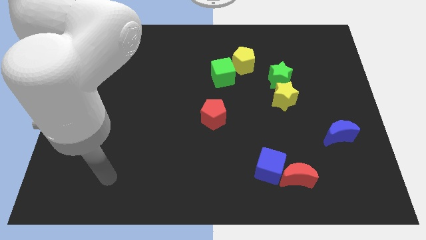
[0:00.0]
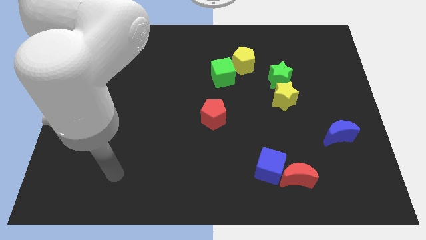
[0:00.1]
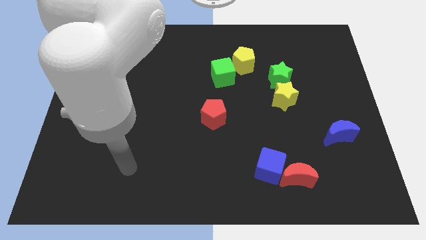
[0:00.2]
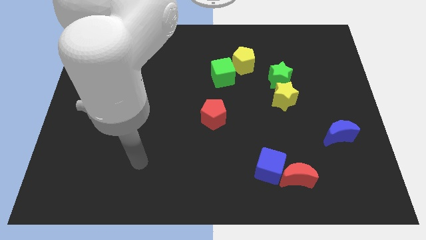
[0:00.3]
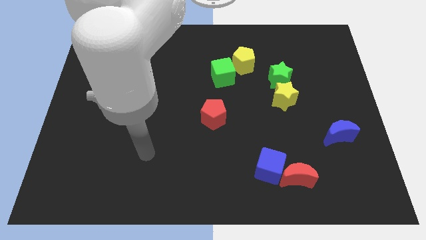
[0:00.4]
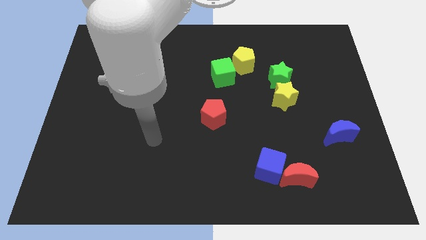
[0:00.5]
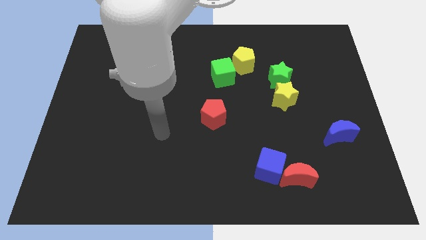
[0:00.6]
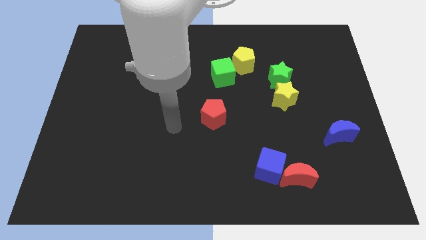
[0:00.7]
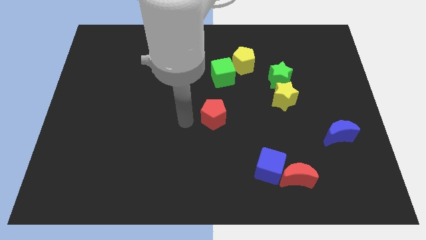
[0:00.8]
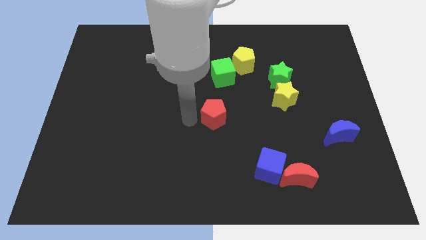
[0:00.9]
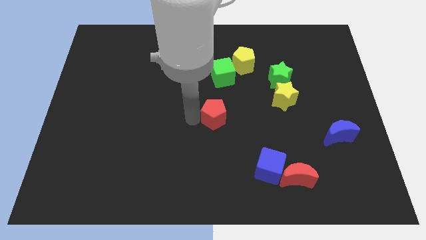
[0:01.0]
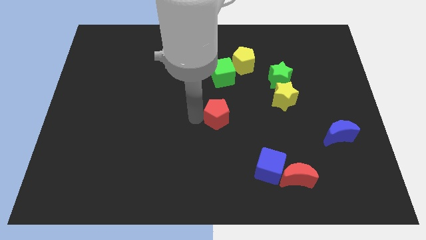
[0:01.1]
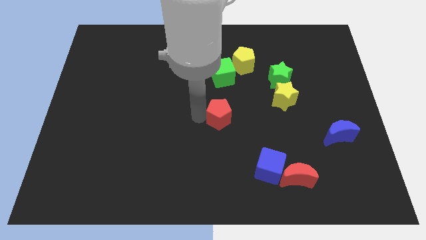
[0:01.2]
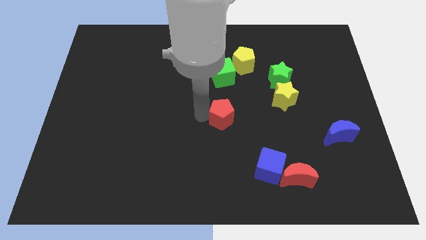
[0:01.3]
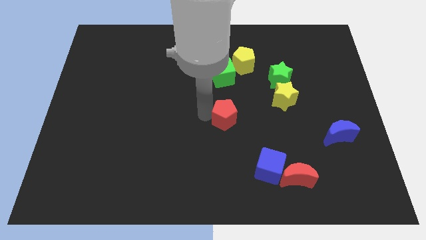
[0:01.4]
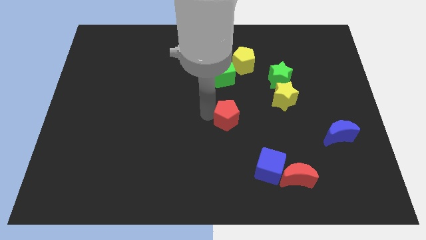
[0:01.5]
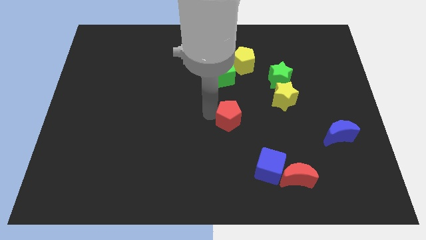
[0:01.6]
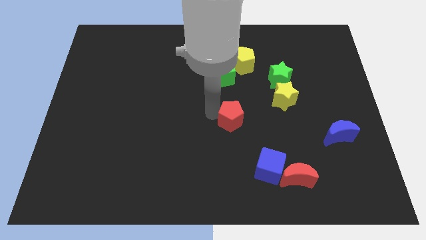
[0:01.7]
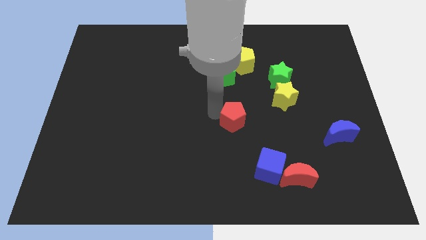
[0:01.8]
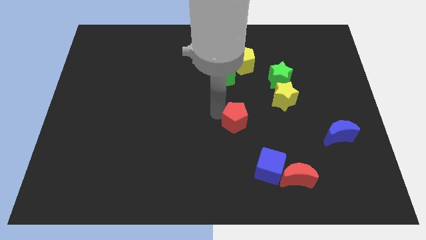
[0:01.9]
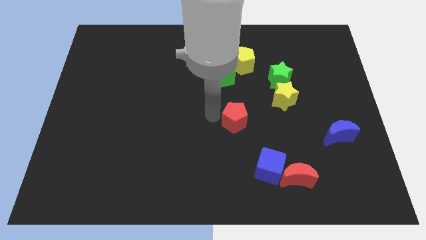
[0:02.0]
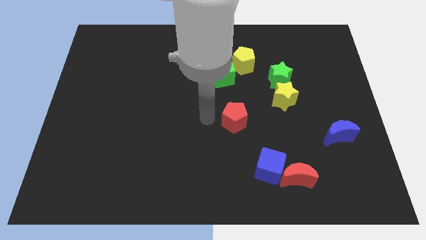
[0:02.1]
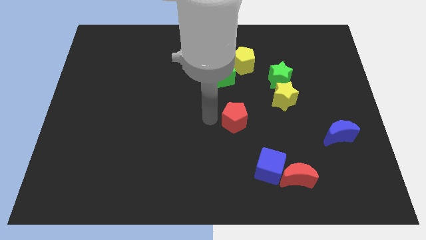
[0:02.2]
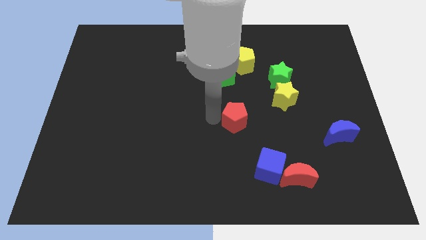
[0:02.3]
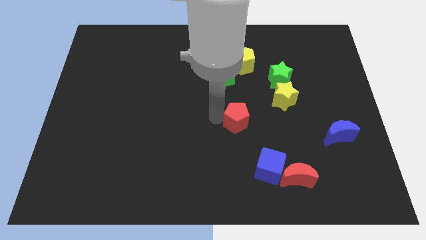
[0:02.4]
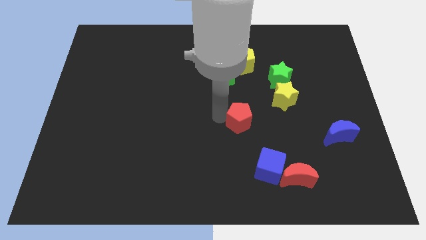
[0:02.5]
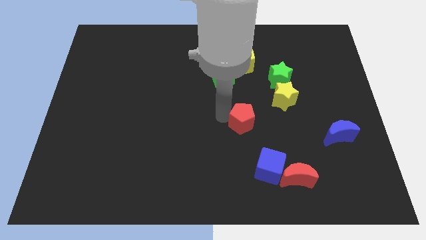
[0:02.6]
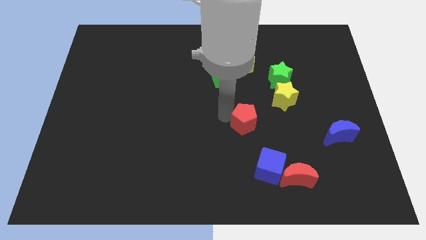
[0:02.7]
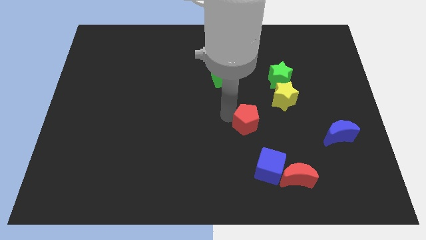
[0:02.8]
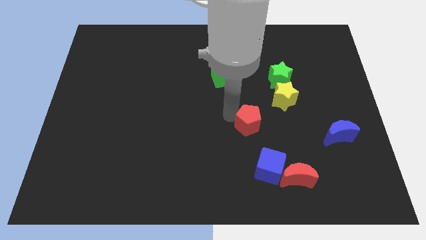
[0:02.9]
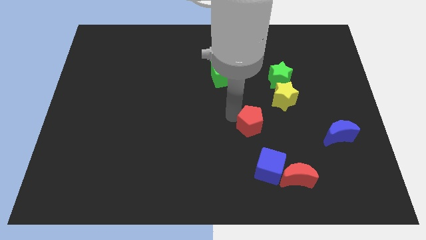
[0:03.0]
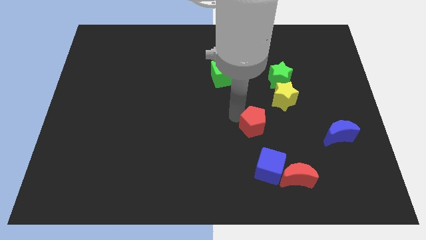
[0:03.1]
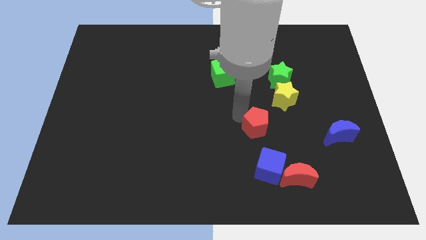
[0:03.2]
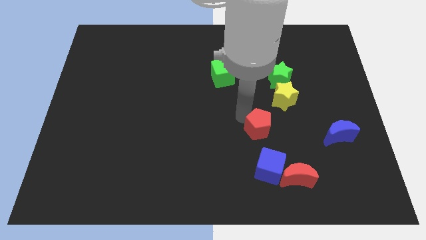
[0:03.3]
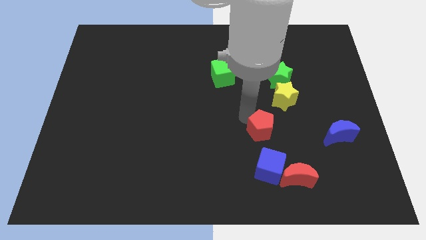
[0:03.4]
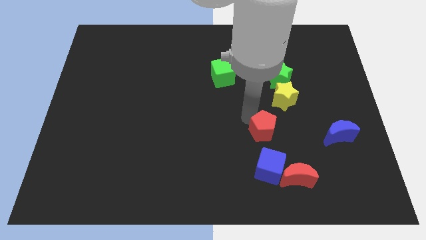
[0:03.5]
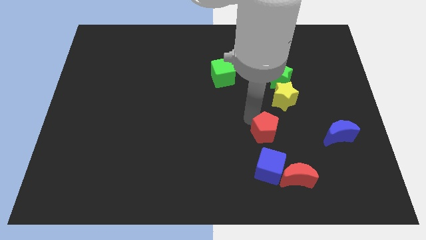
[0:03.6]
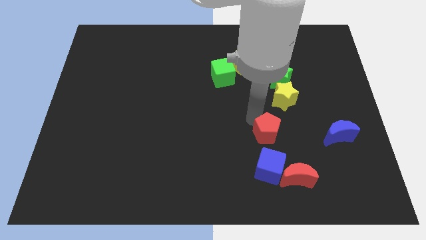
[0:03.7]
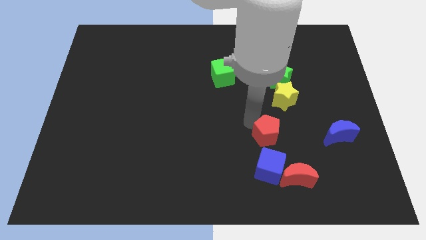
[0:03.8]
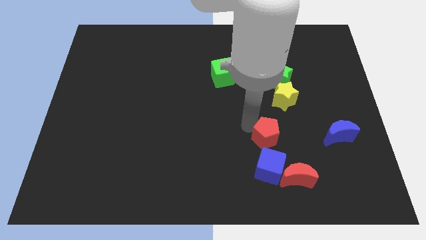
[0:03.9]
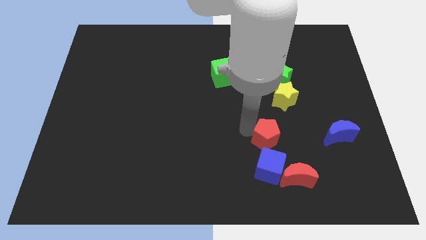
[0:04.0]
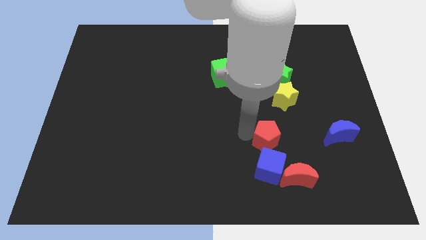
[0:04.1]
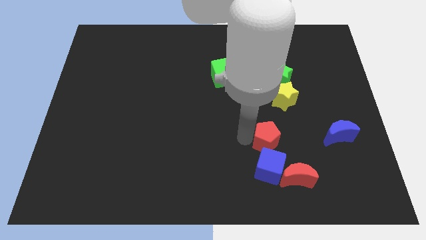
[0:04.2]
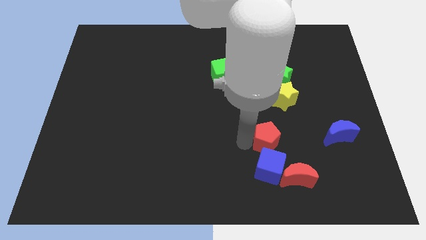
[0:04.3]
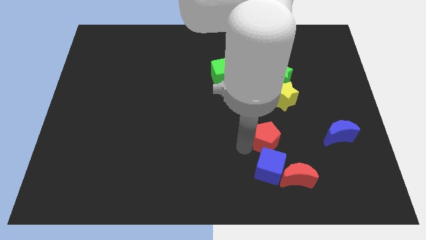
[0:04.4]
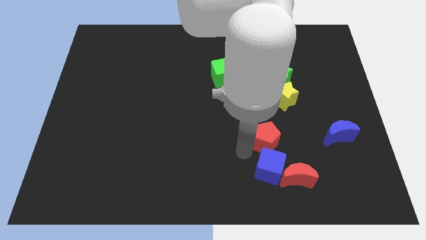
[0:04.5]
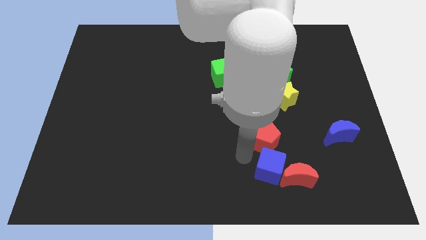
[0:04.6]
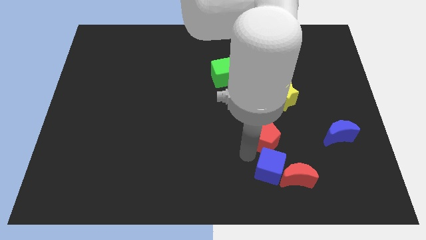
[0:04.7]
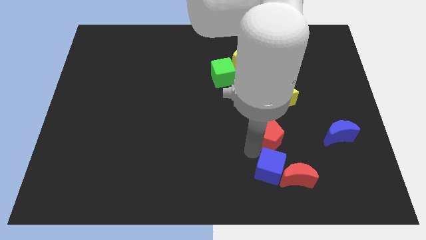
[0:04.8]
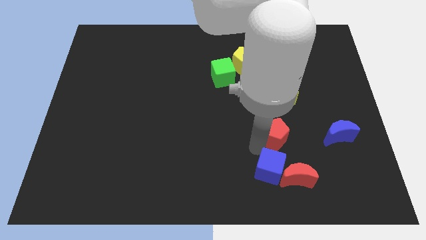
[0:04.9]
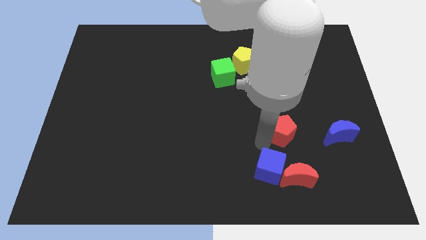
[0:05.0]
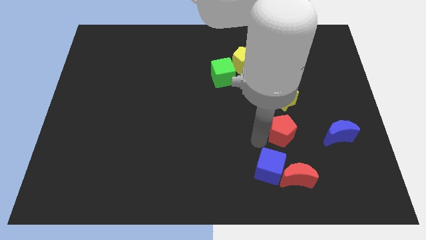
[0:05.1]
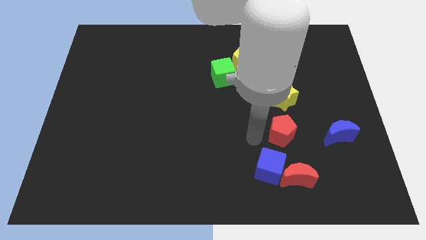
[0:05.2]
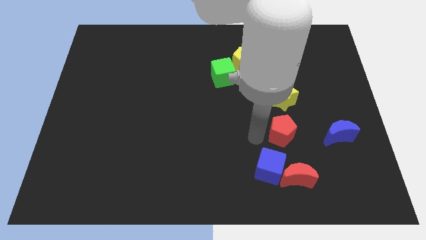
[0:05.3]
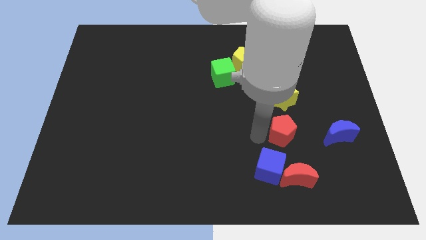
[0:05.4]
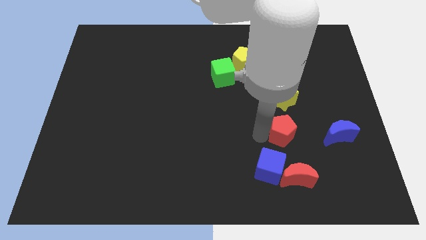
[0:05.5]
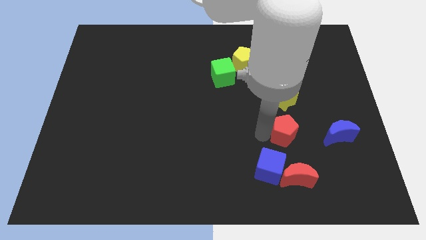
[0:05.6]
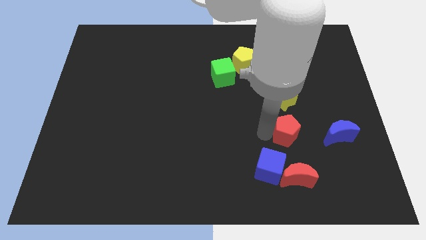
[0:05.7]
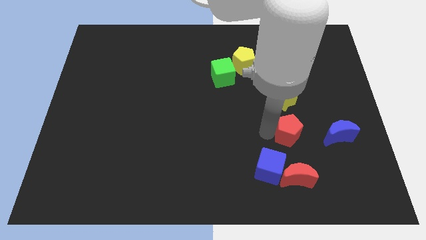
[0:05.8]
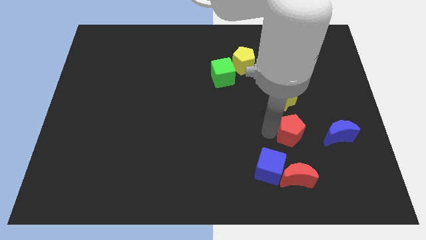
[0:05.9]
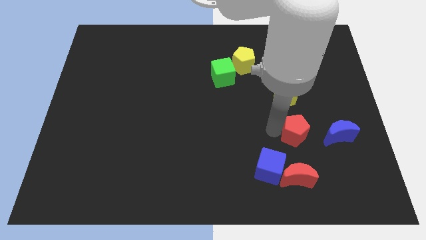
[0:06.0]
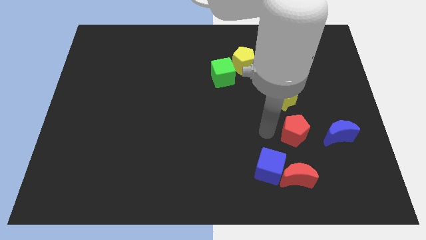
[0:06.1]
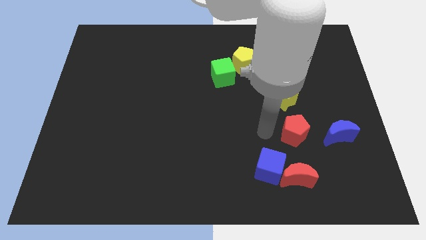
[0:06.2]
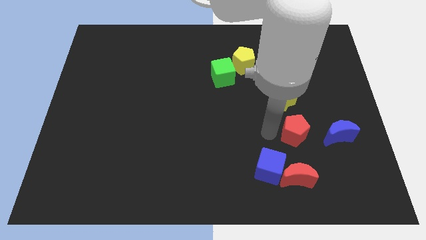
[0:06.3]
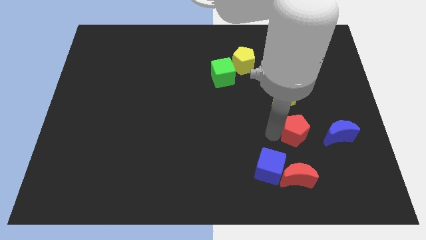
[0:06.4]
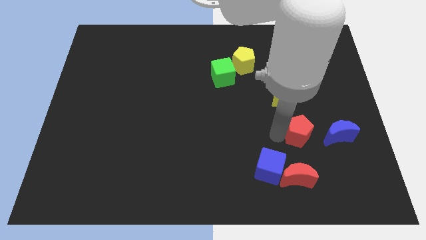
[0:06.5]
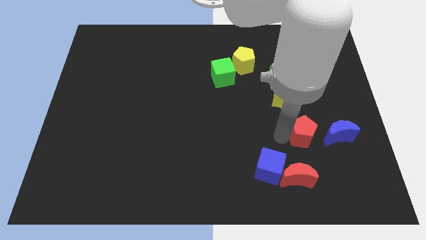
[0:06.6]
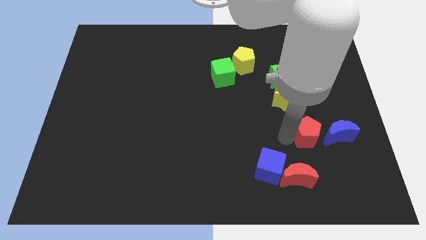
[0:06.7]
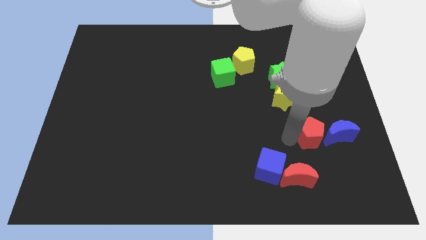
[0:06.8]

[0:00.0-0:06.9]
move the red pentagon close to the blue moon

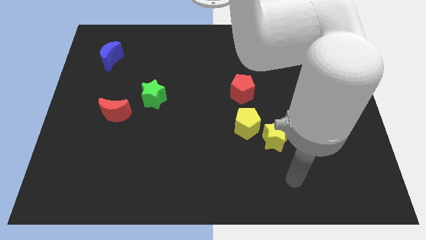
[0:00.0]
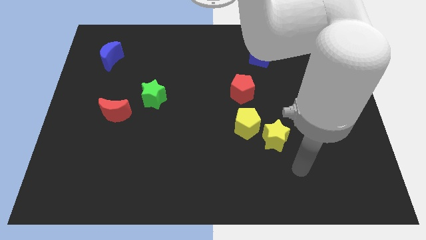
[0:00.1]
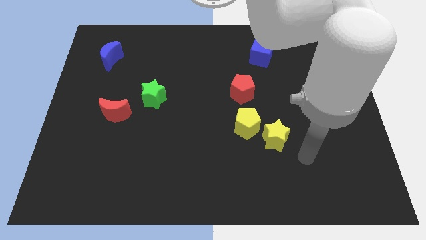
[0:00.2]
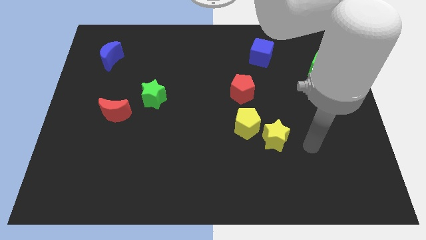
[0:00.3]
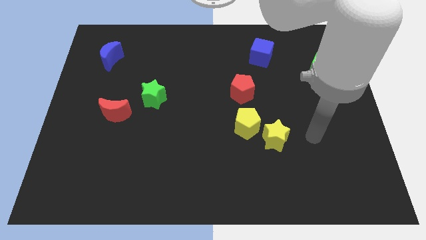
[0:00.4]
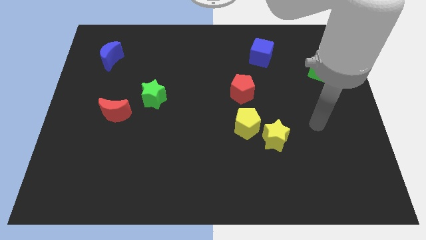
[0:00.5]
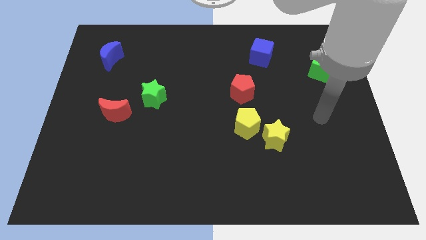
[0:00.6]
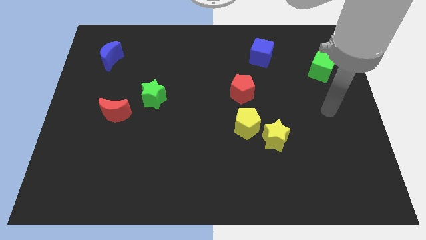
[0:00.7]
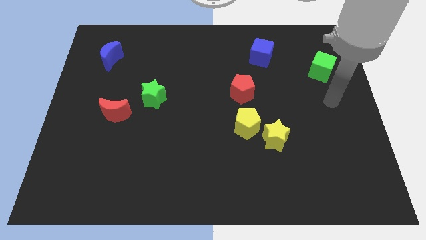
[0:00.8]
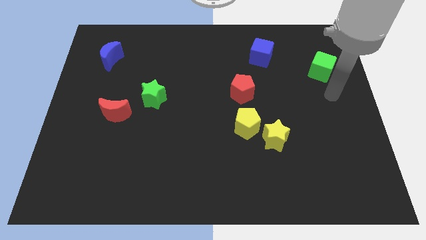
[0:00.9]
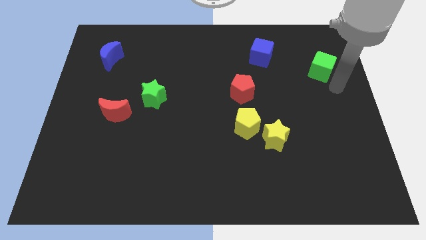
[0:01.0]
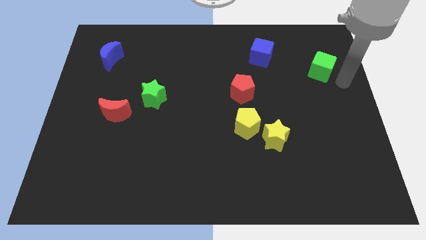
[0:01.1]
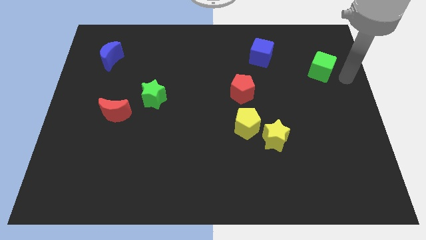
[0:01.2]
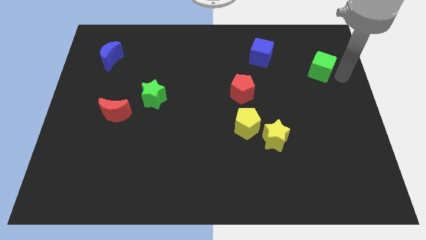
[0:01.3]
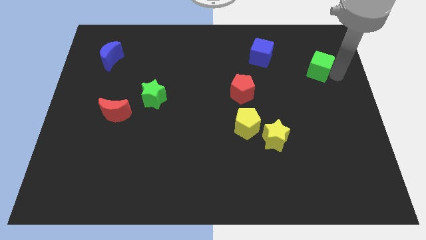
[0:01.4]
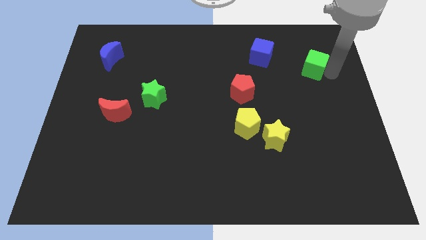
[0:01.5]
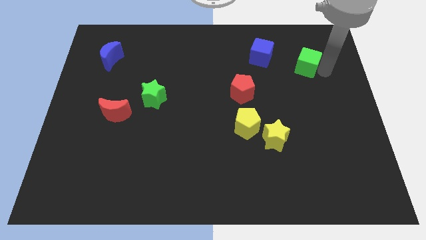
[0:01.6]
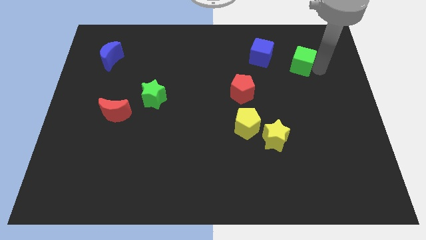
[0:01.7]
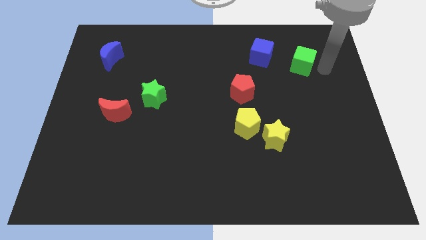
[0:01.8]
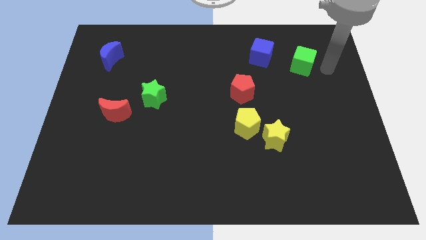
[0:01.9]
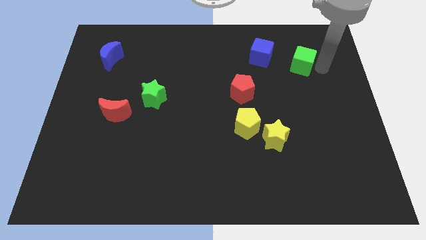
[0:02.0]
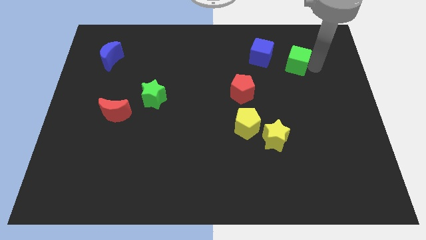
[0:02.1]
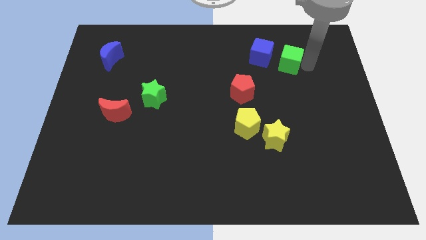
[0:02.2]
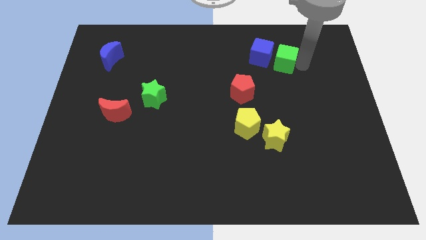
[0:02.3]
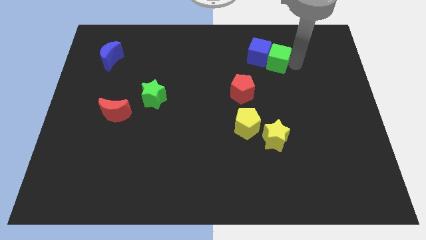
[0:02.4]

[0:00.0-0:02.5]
slide the green cube to the blue cube
